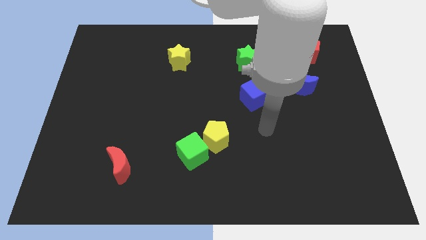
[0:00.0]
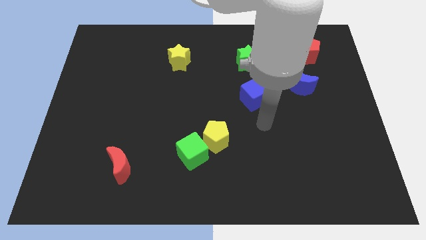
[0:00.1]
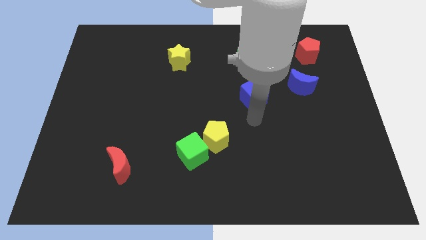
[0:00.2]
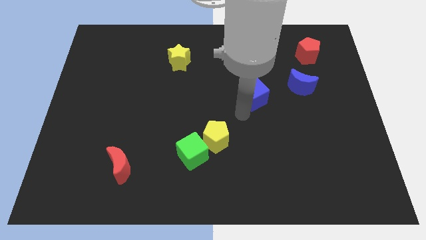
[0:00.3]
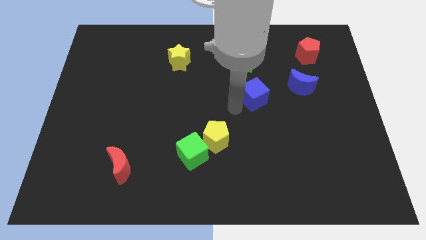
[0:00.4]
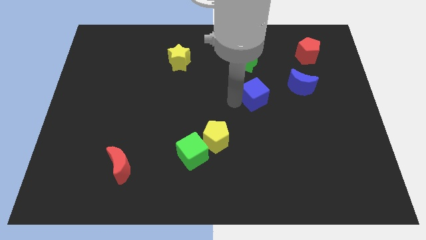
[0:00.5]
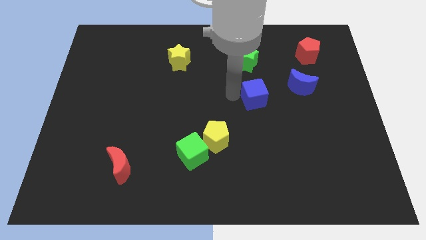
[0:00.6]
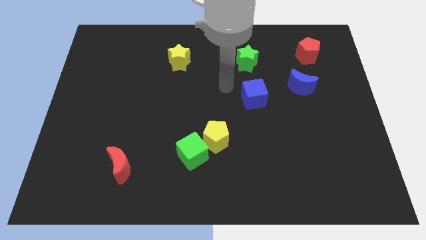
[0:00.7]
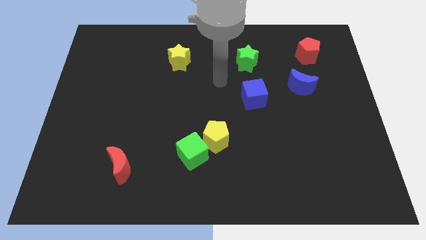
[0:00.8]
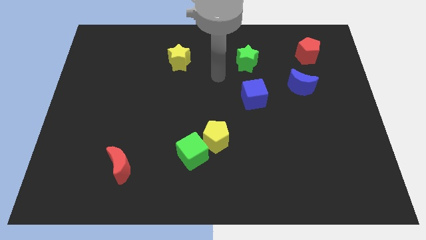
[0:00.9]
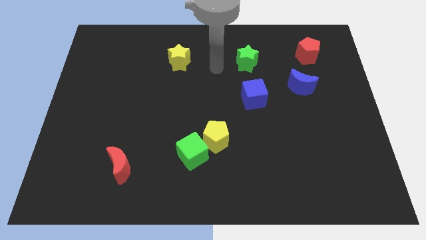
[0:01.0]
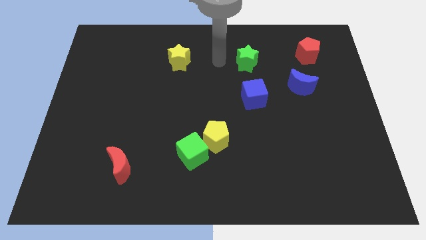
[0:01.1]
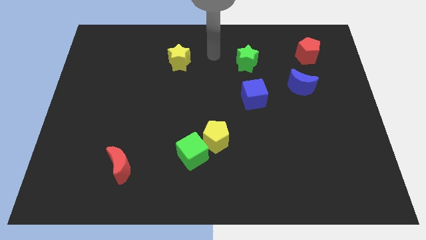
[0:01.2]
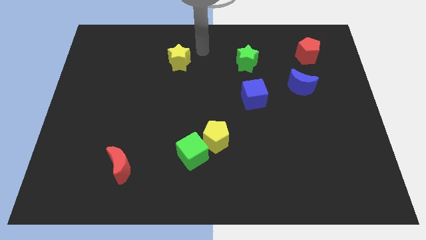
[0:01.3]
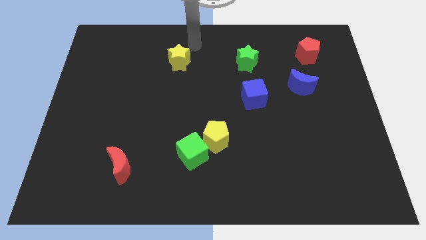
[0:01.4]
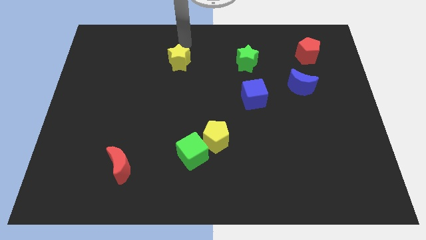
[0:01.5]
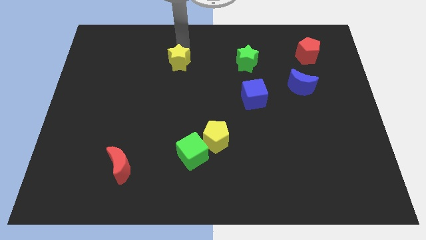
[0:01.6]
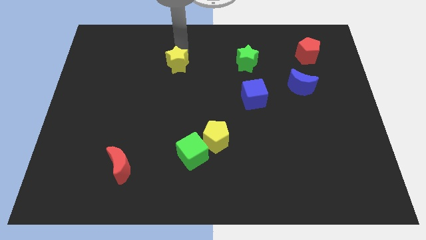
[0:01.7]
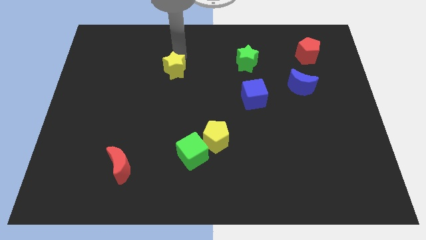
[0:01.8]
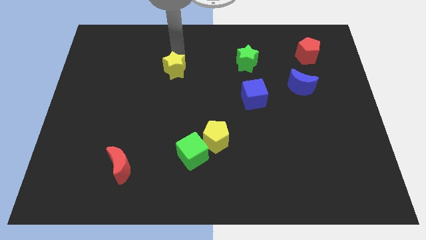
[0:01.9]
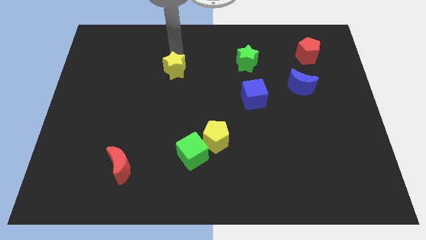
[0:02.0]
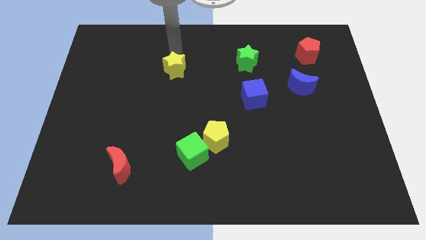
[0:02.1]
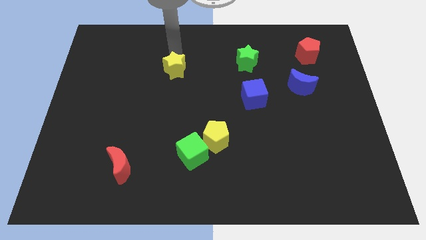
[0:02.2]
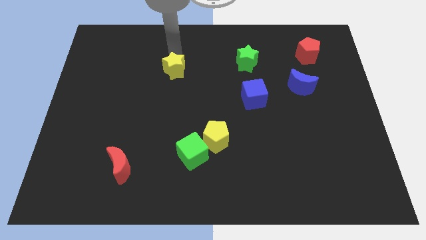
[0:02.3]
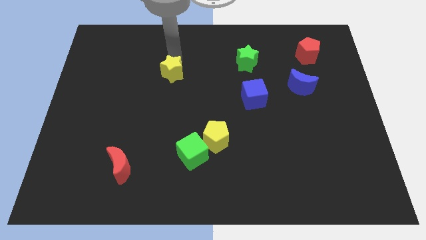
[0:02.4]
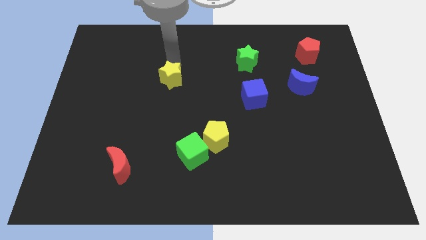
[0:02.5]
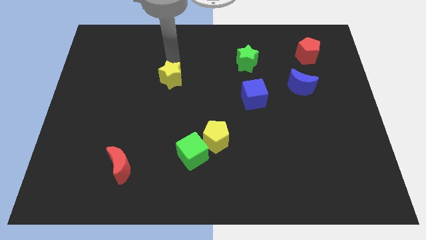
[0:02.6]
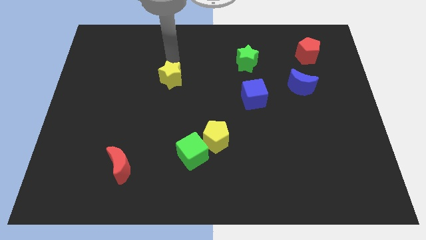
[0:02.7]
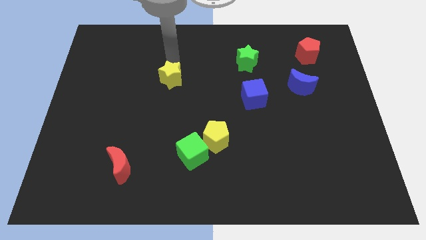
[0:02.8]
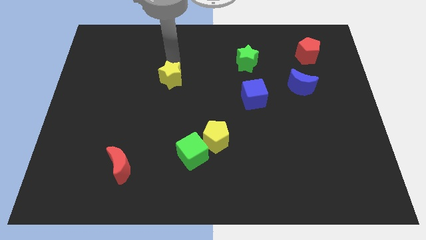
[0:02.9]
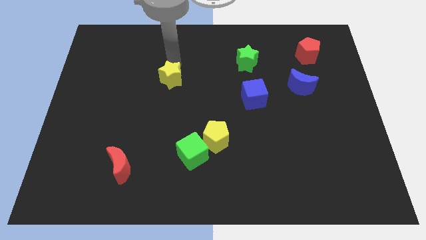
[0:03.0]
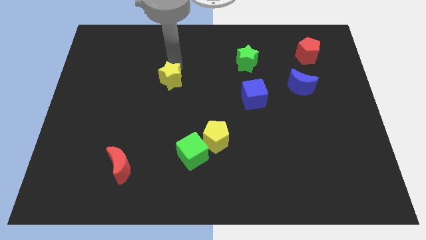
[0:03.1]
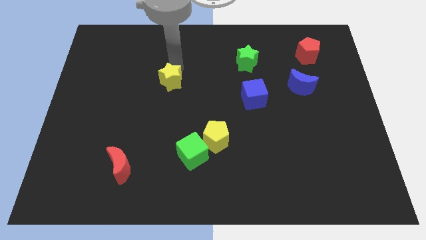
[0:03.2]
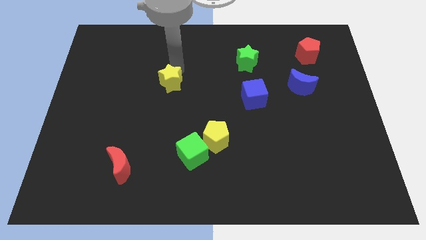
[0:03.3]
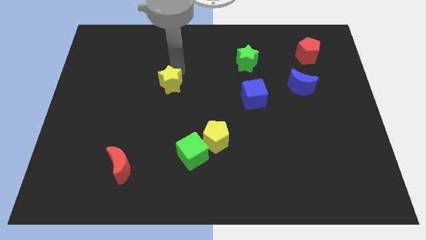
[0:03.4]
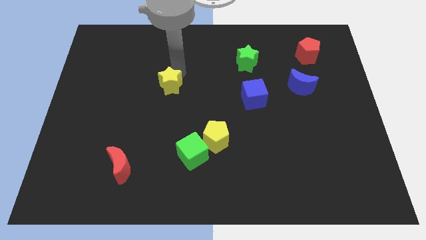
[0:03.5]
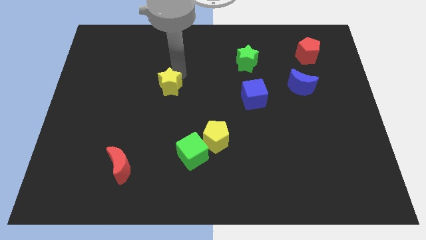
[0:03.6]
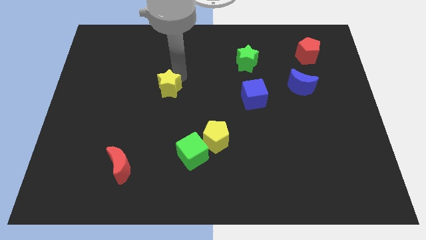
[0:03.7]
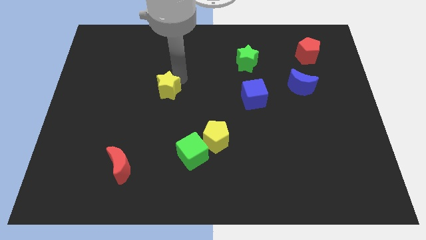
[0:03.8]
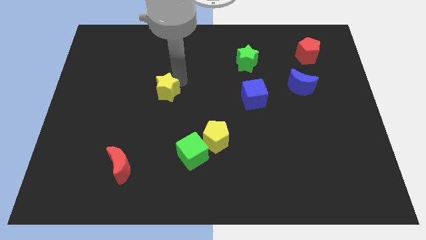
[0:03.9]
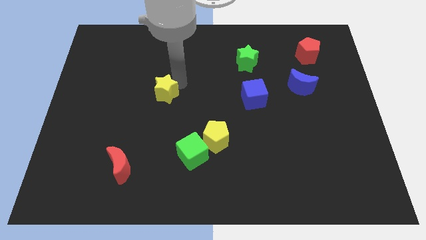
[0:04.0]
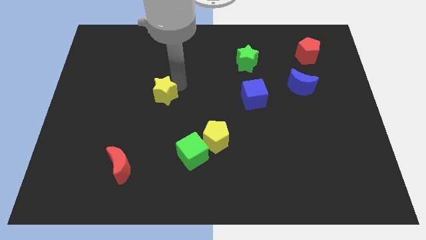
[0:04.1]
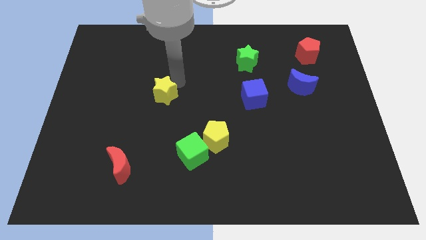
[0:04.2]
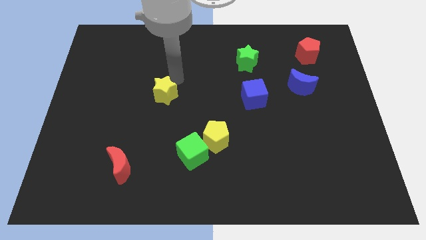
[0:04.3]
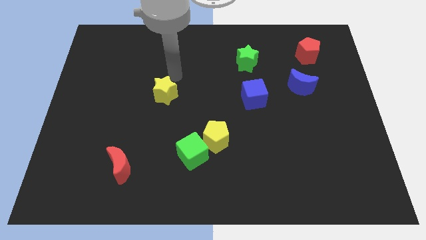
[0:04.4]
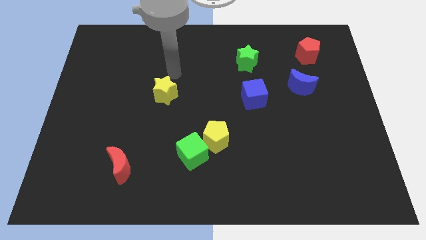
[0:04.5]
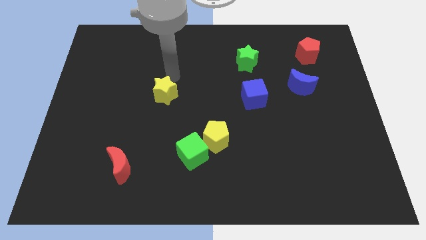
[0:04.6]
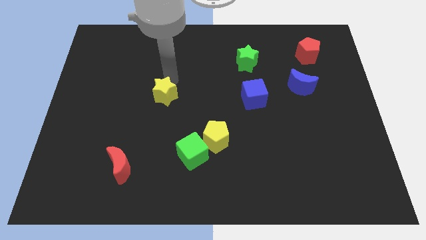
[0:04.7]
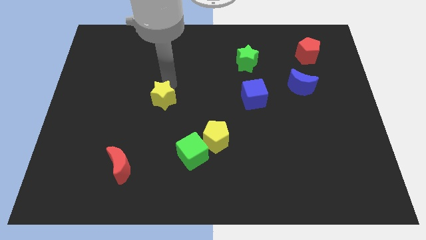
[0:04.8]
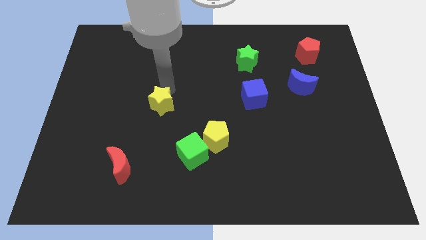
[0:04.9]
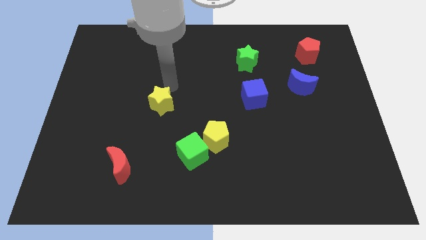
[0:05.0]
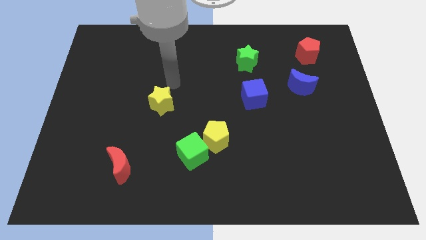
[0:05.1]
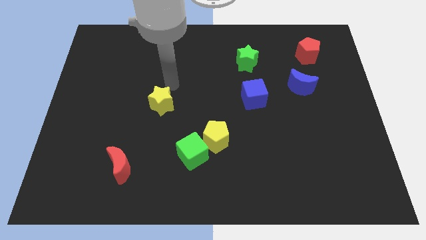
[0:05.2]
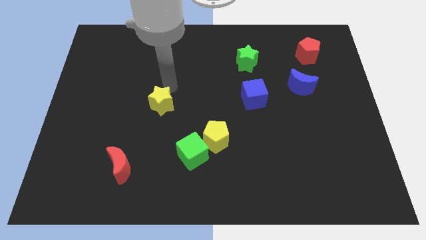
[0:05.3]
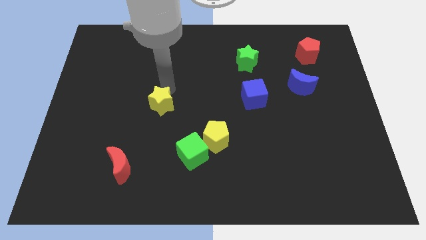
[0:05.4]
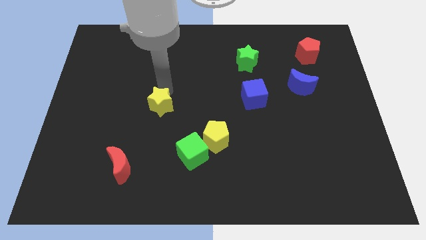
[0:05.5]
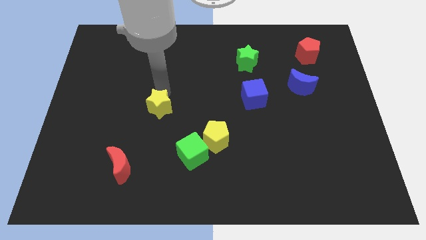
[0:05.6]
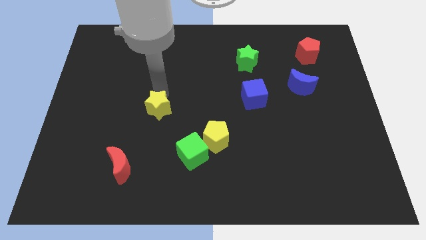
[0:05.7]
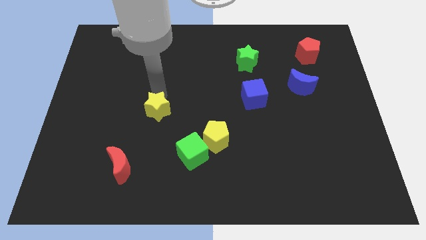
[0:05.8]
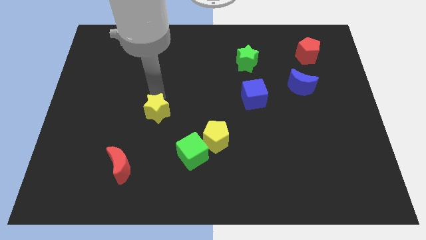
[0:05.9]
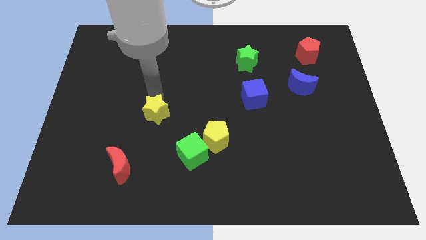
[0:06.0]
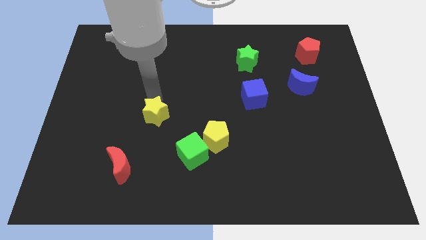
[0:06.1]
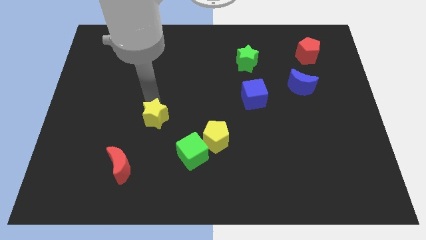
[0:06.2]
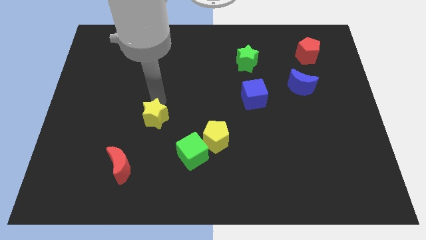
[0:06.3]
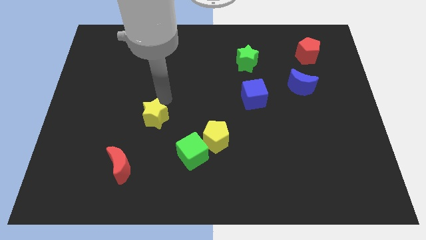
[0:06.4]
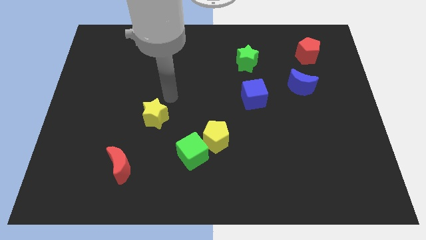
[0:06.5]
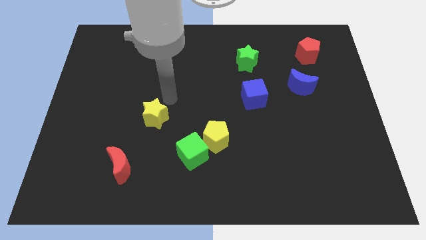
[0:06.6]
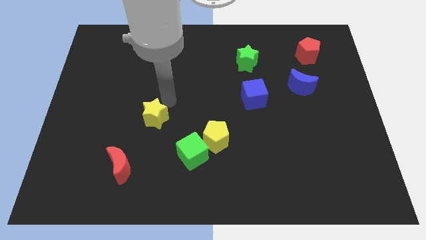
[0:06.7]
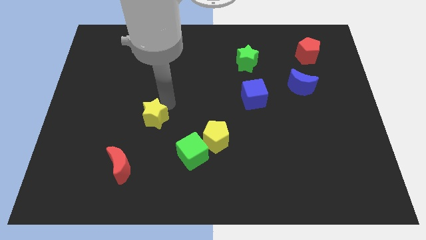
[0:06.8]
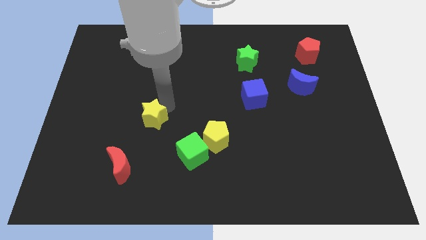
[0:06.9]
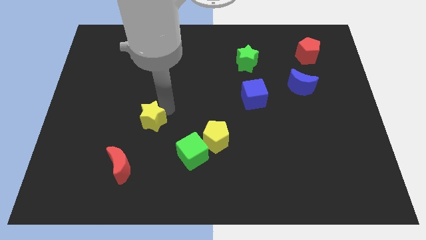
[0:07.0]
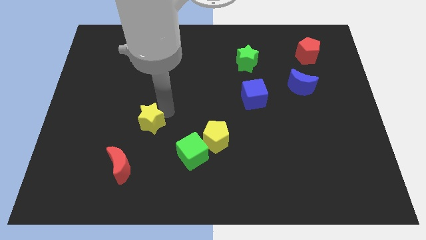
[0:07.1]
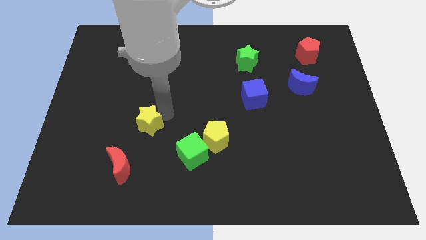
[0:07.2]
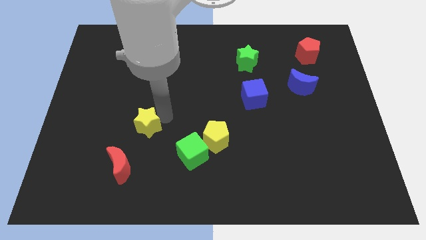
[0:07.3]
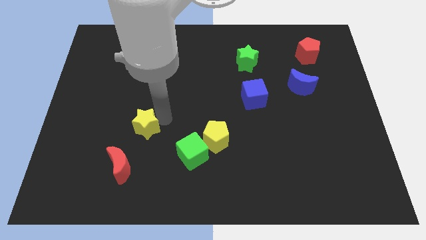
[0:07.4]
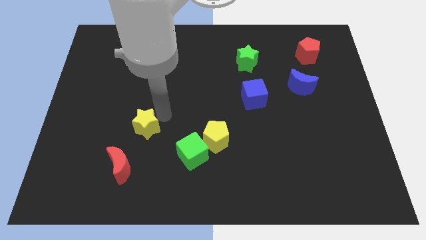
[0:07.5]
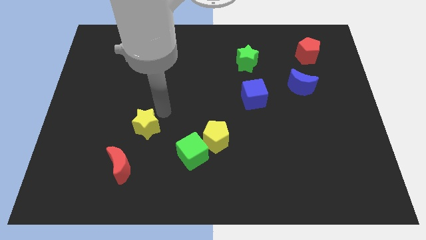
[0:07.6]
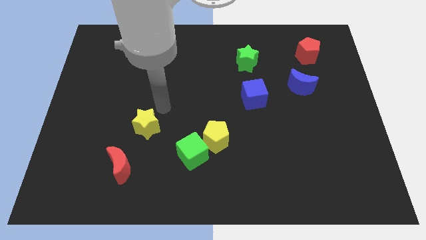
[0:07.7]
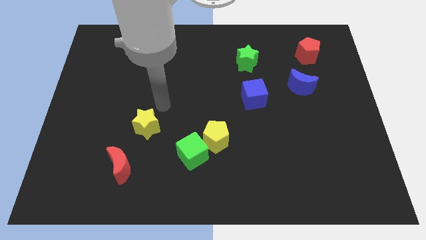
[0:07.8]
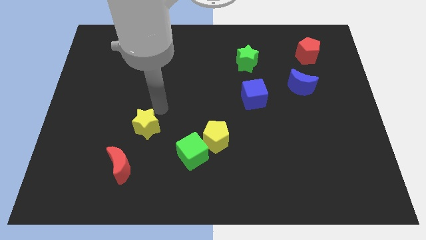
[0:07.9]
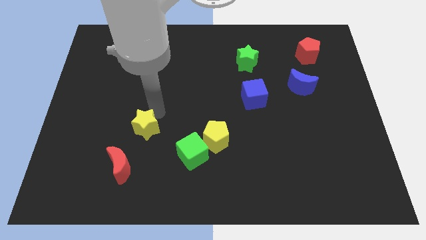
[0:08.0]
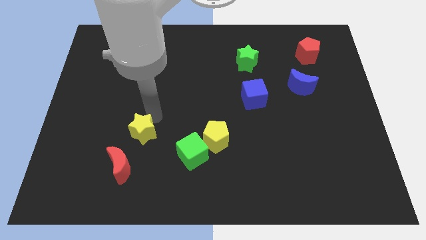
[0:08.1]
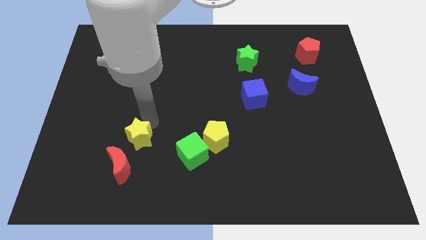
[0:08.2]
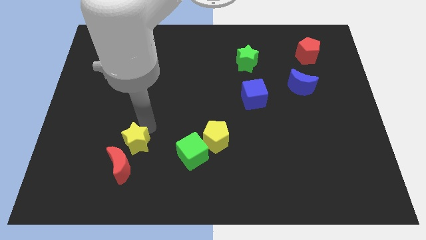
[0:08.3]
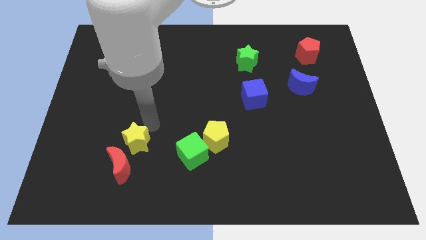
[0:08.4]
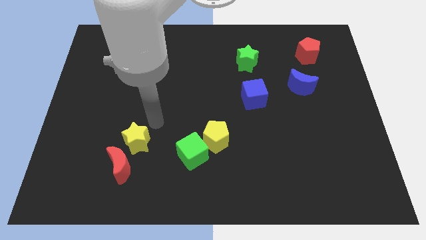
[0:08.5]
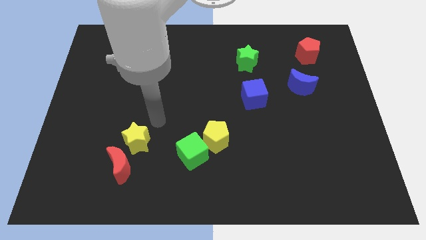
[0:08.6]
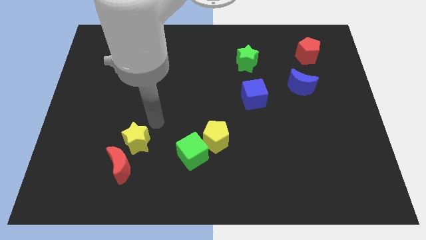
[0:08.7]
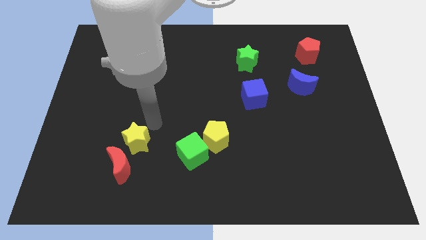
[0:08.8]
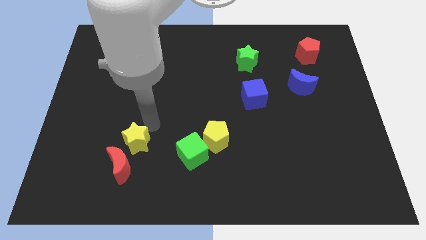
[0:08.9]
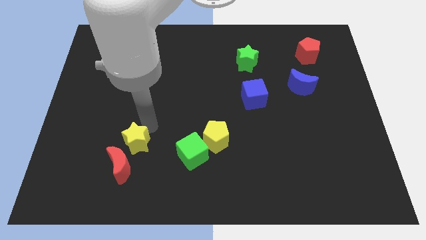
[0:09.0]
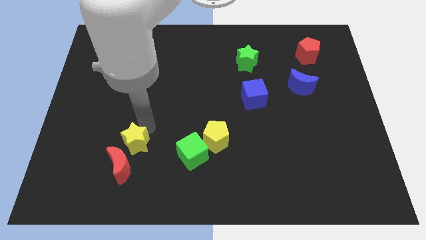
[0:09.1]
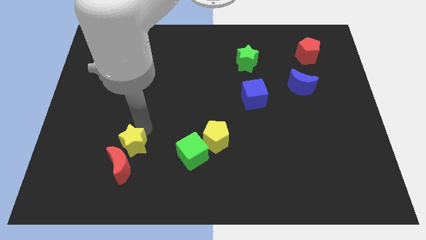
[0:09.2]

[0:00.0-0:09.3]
push the yellow star to the red moon
